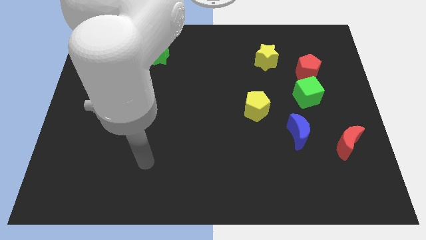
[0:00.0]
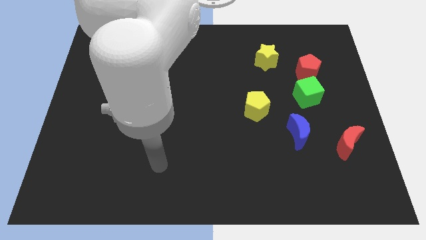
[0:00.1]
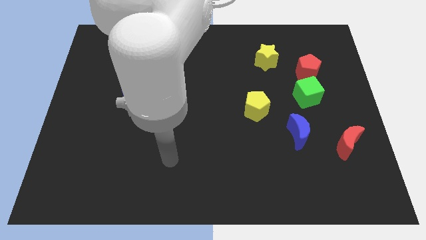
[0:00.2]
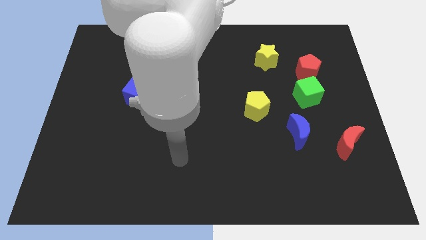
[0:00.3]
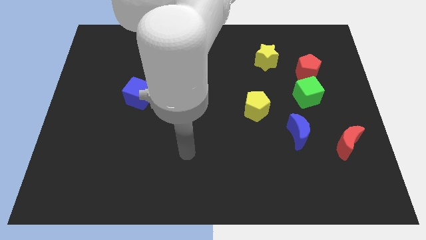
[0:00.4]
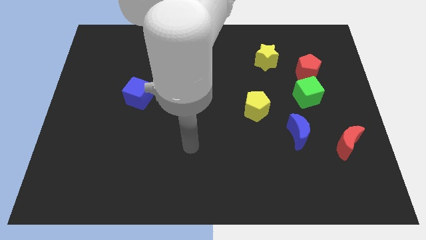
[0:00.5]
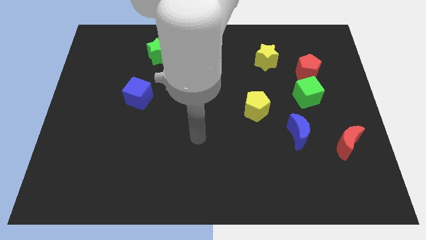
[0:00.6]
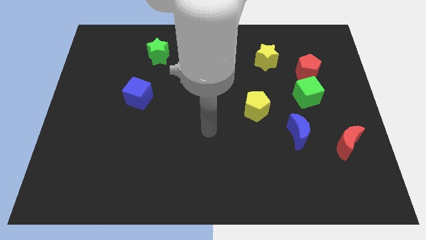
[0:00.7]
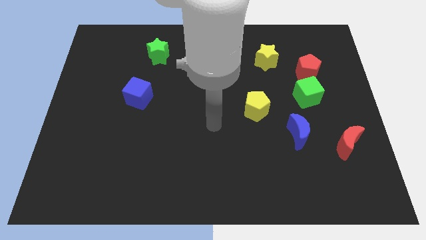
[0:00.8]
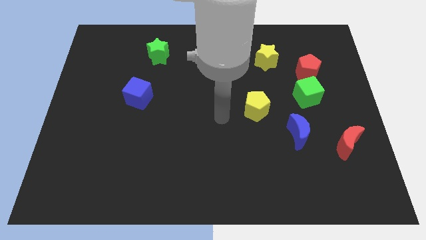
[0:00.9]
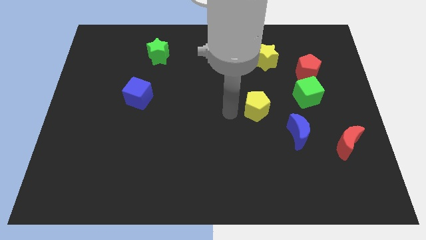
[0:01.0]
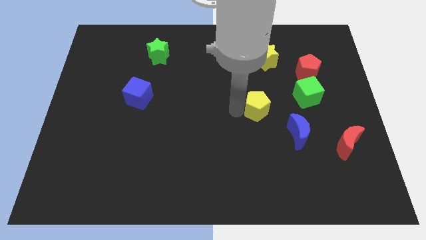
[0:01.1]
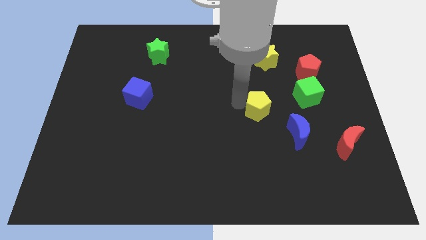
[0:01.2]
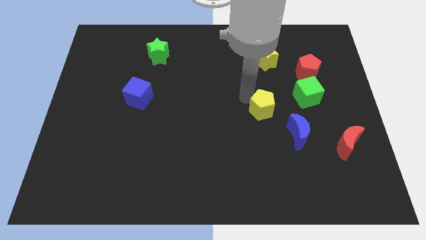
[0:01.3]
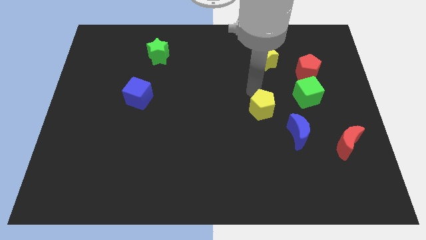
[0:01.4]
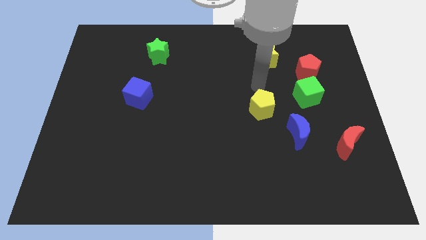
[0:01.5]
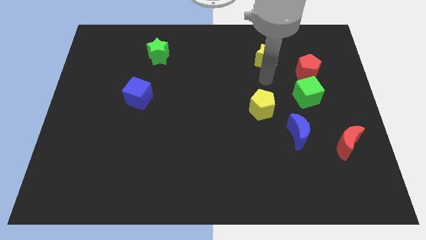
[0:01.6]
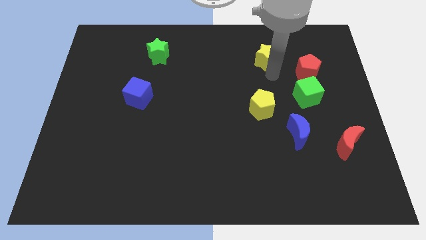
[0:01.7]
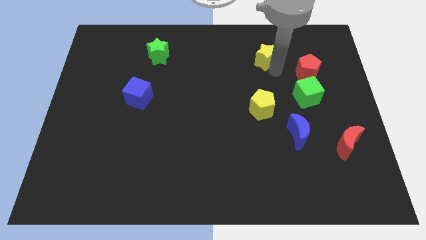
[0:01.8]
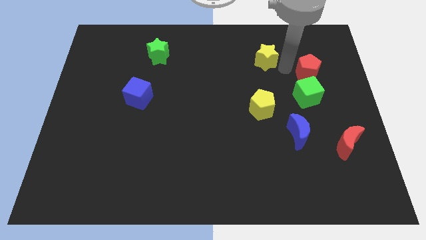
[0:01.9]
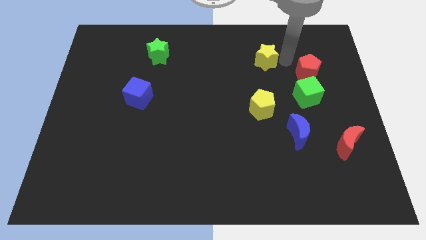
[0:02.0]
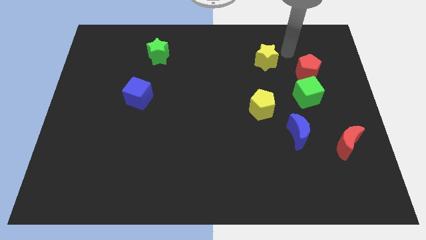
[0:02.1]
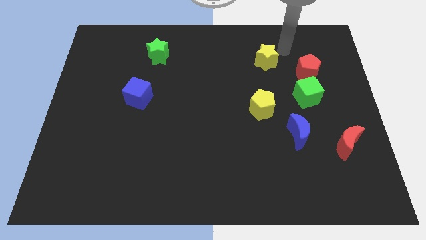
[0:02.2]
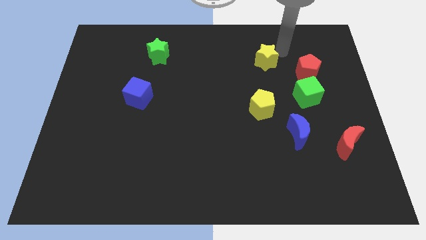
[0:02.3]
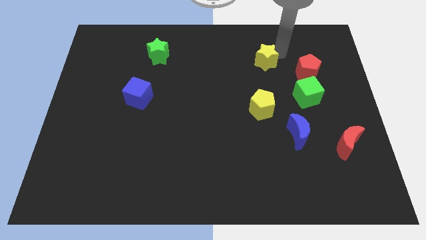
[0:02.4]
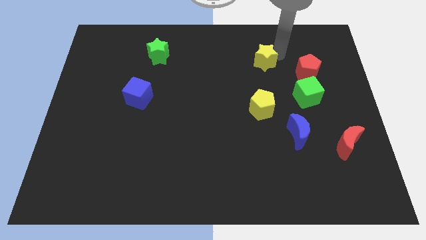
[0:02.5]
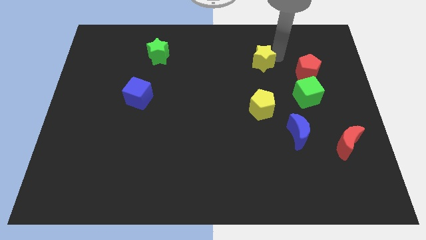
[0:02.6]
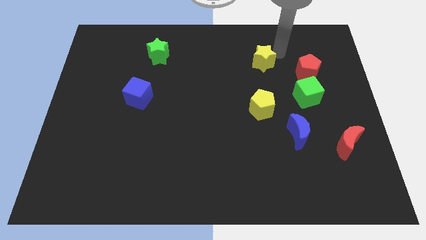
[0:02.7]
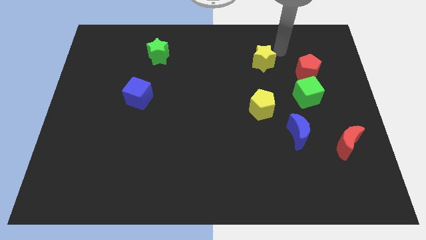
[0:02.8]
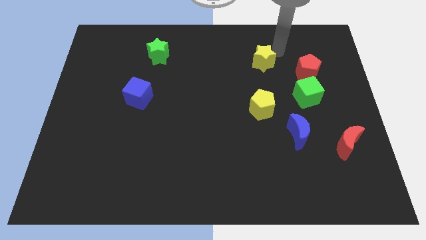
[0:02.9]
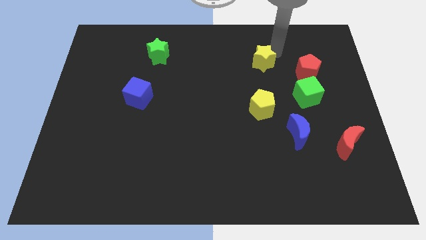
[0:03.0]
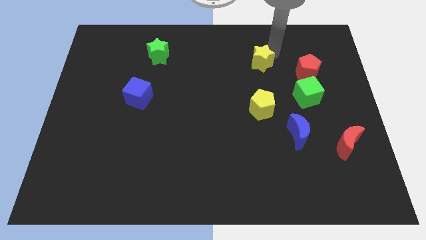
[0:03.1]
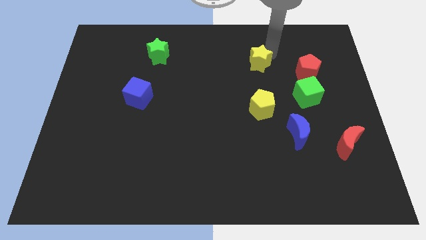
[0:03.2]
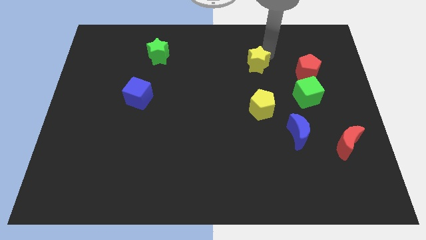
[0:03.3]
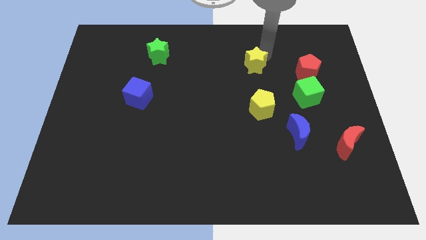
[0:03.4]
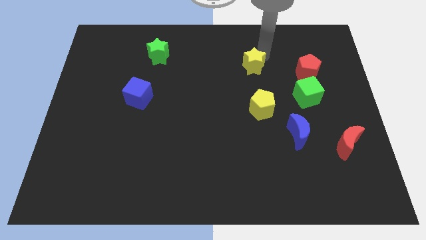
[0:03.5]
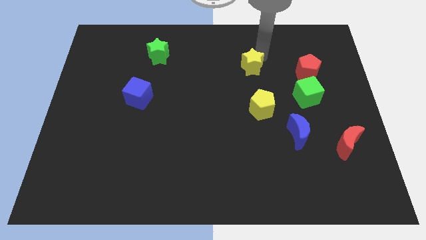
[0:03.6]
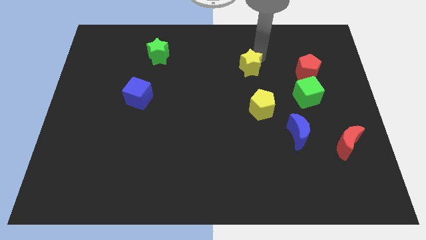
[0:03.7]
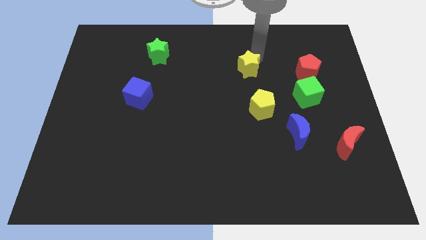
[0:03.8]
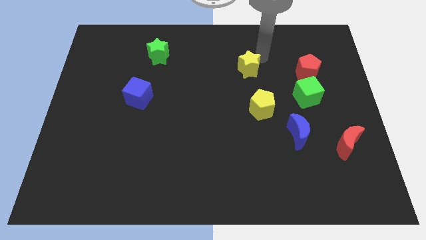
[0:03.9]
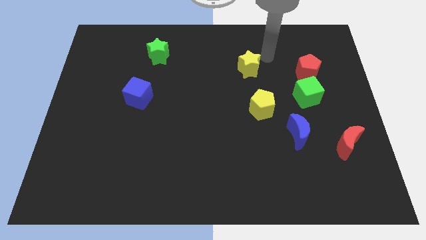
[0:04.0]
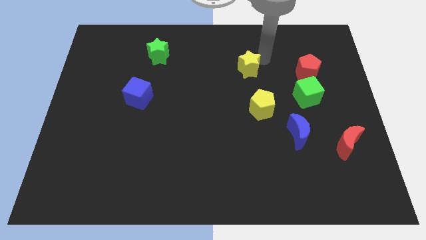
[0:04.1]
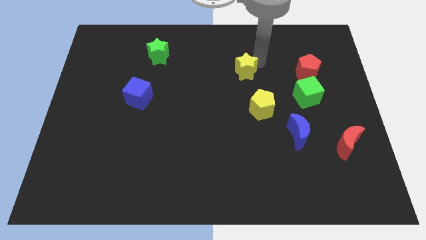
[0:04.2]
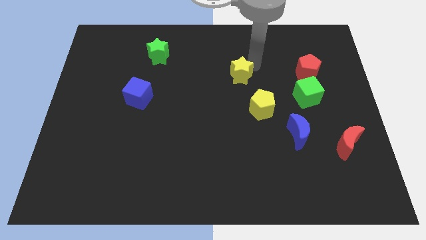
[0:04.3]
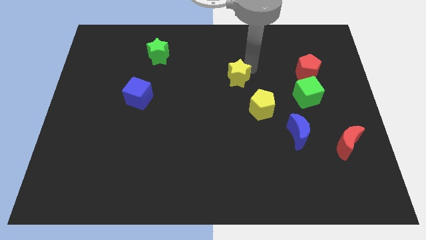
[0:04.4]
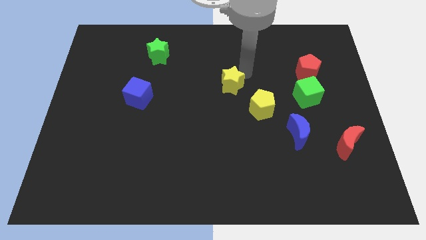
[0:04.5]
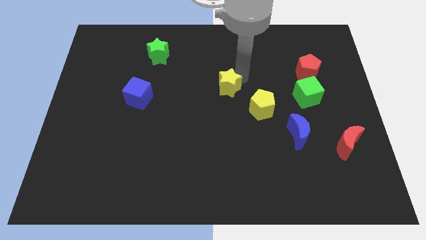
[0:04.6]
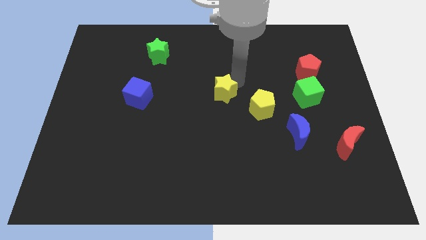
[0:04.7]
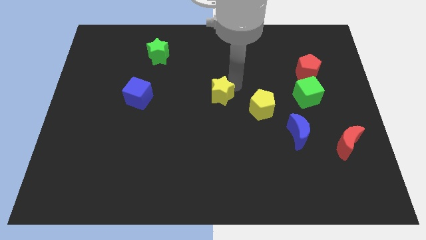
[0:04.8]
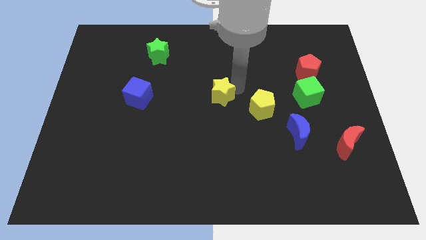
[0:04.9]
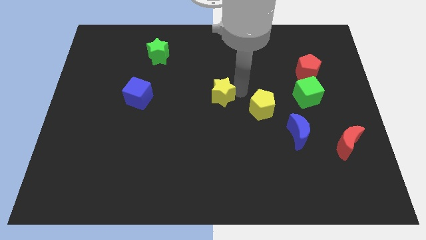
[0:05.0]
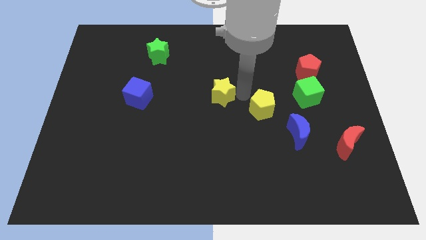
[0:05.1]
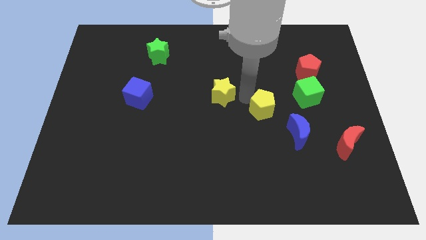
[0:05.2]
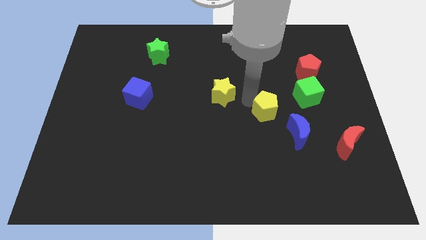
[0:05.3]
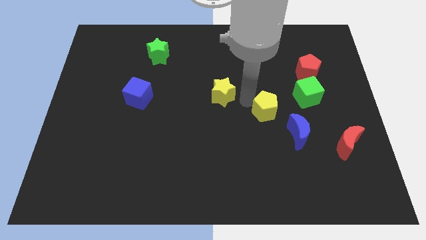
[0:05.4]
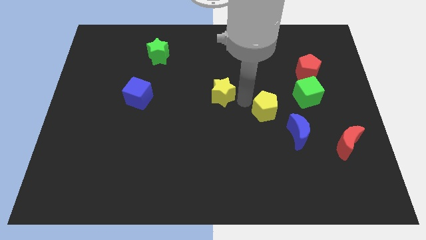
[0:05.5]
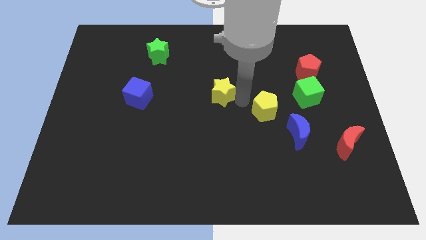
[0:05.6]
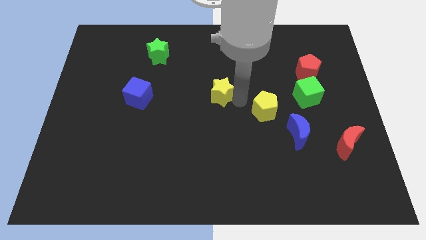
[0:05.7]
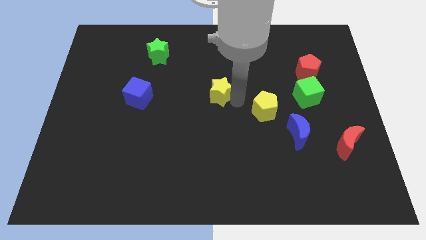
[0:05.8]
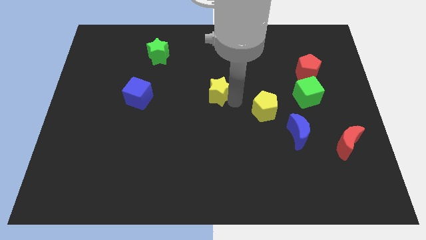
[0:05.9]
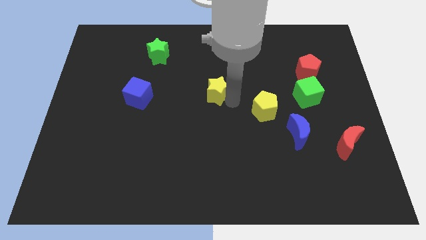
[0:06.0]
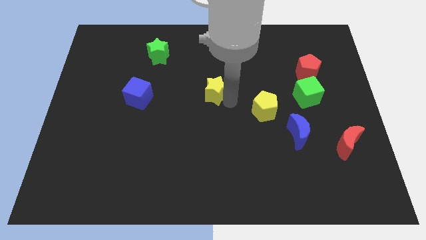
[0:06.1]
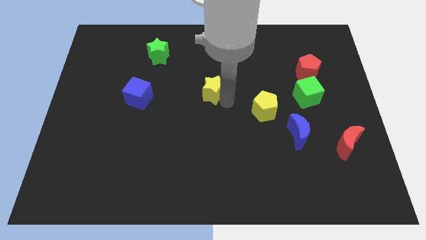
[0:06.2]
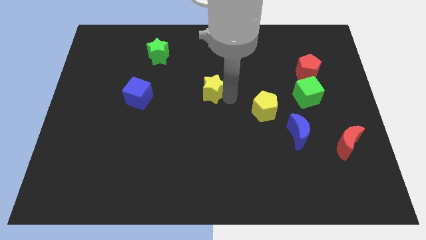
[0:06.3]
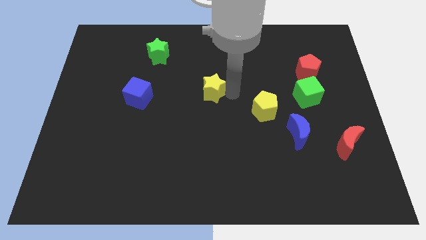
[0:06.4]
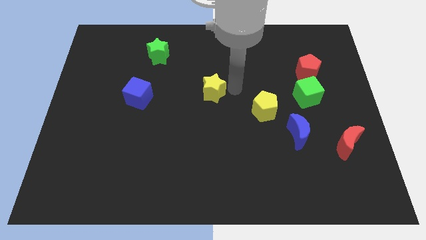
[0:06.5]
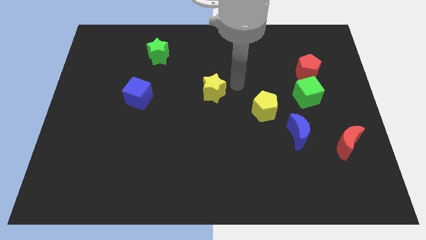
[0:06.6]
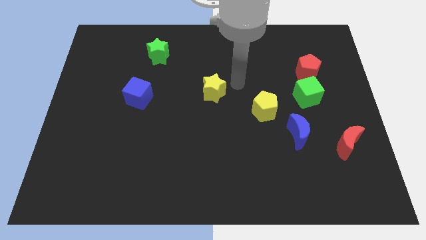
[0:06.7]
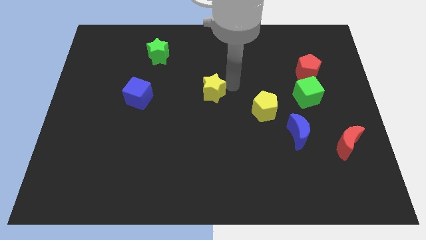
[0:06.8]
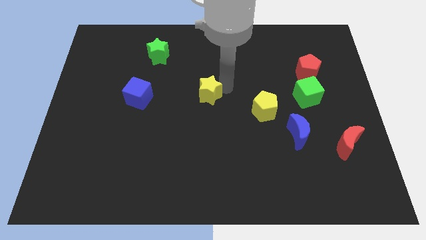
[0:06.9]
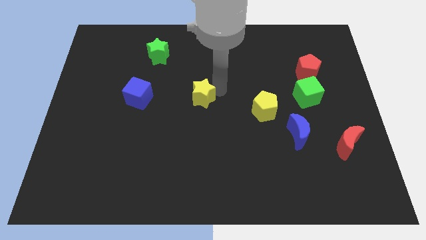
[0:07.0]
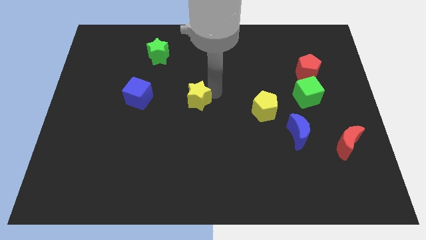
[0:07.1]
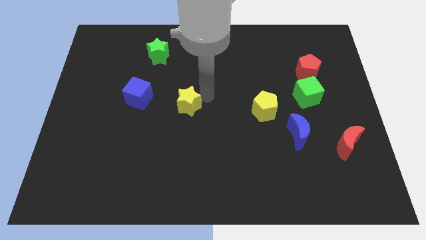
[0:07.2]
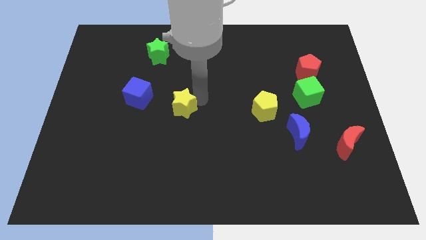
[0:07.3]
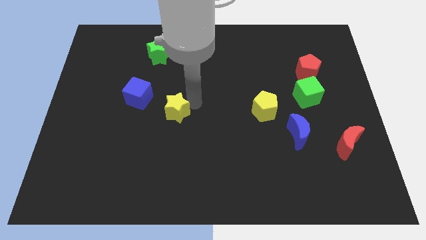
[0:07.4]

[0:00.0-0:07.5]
put the yellow star diagonally down and to the right of the blue cube

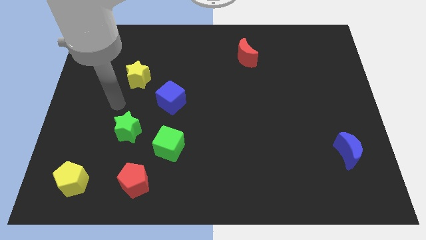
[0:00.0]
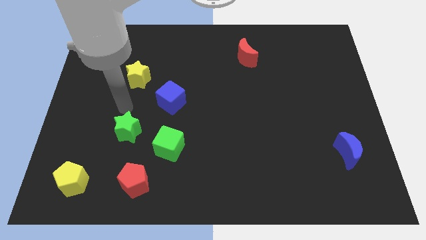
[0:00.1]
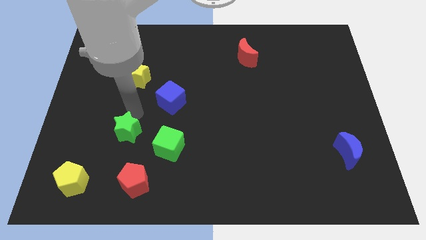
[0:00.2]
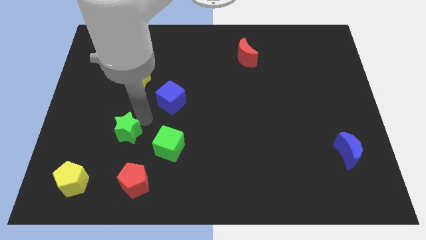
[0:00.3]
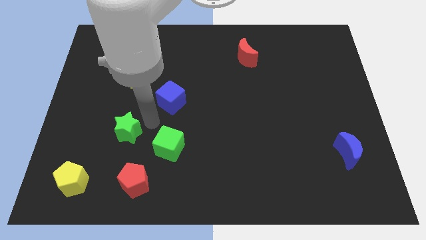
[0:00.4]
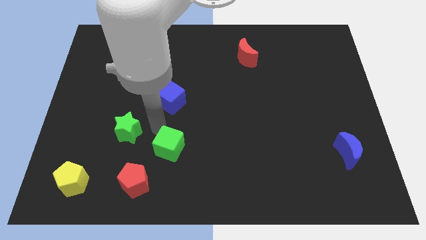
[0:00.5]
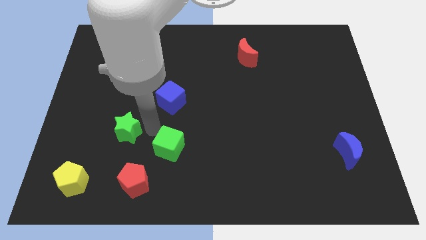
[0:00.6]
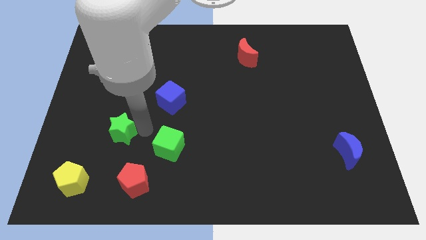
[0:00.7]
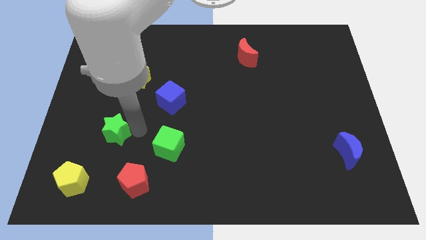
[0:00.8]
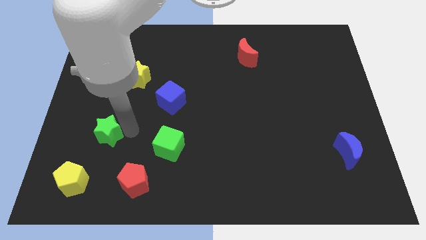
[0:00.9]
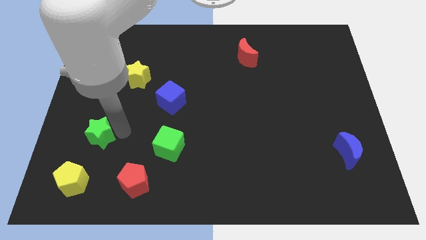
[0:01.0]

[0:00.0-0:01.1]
move the green star above the yellow pentagon
